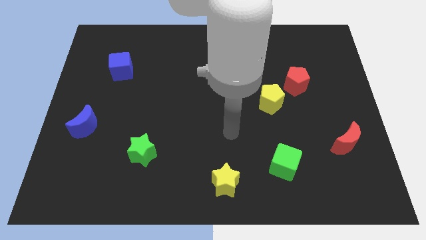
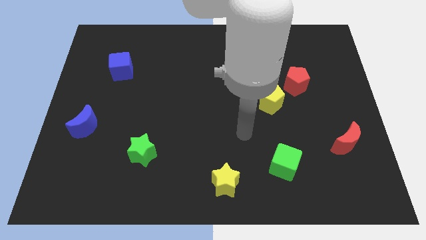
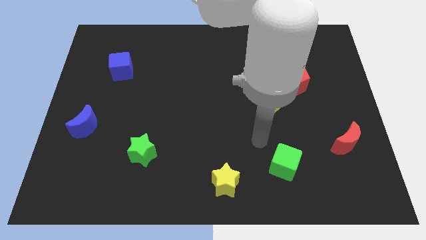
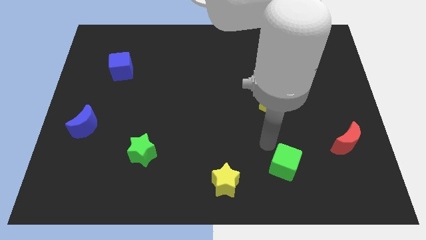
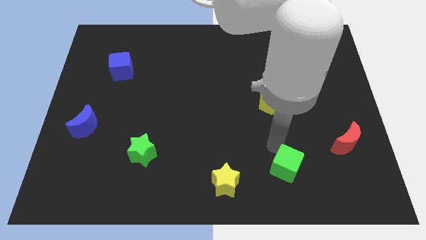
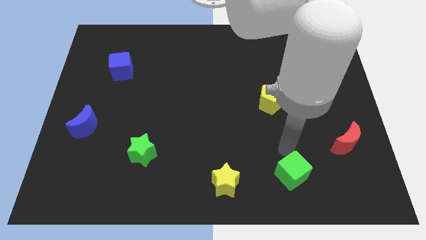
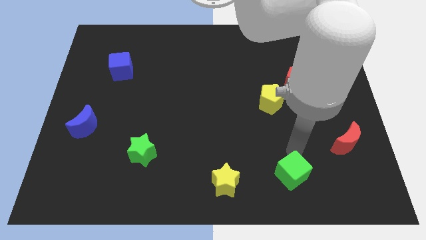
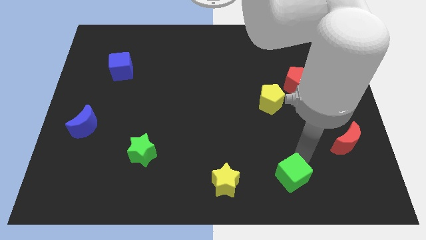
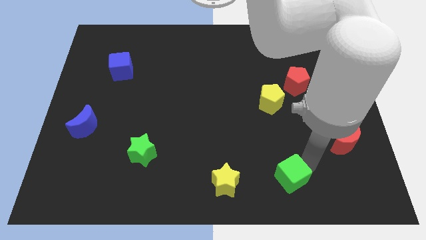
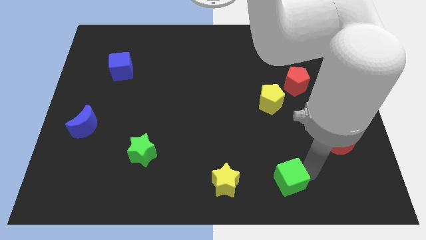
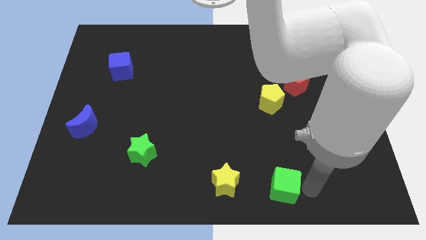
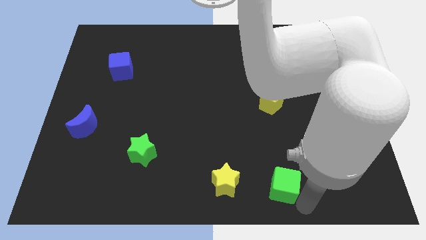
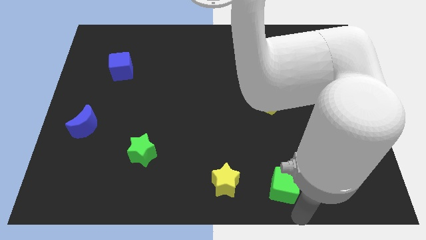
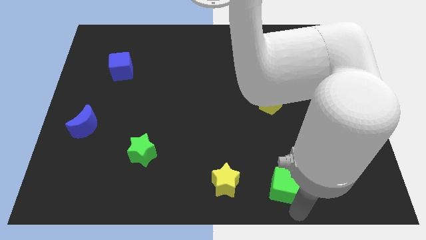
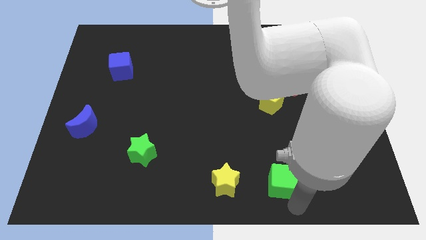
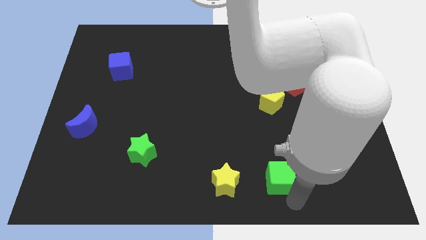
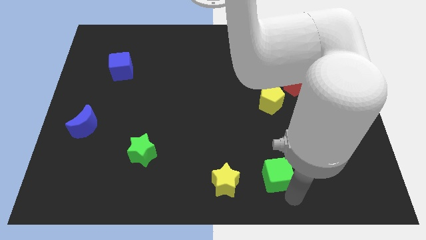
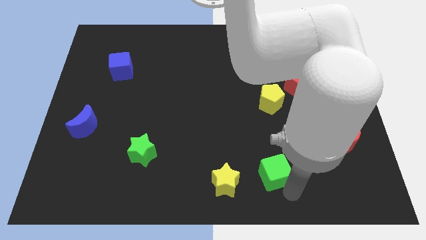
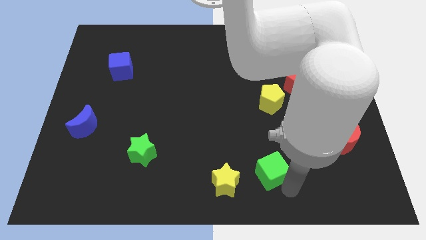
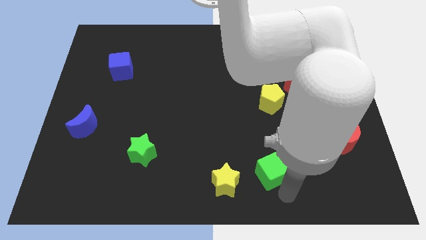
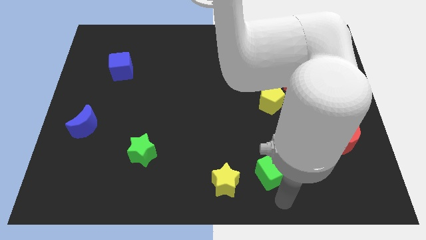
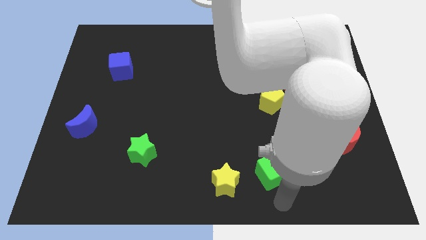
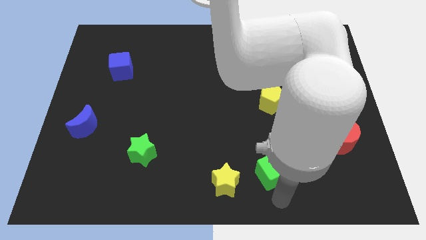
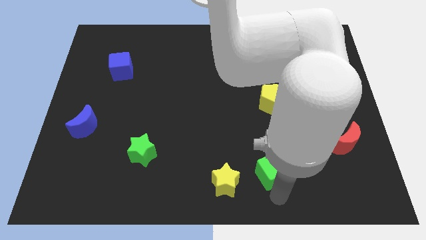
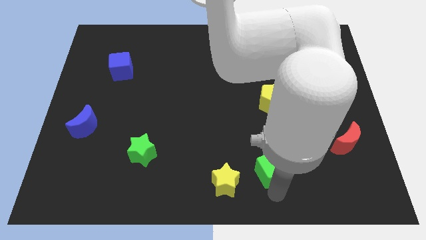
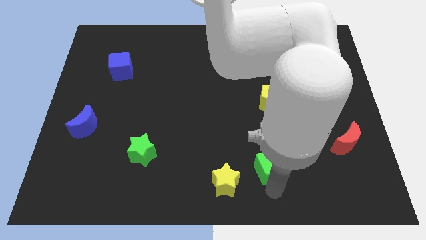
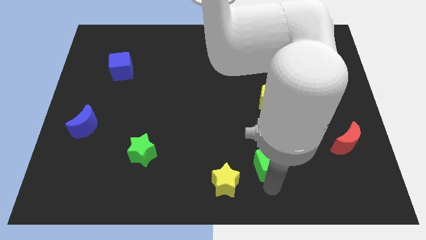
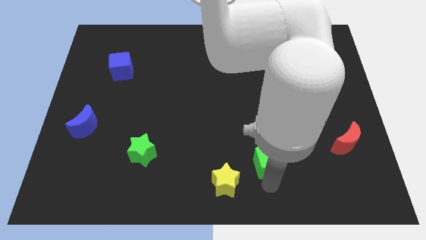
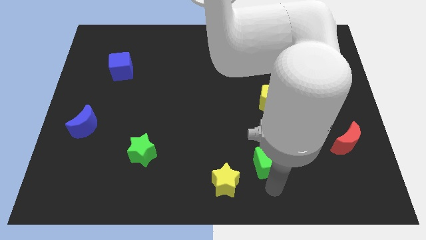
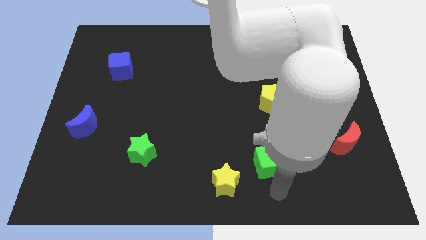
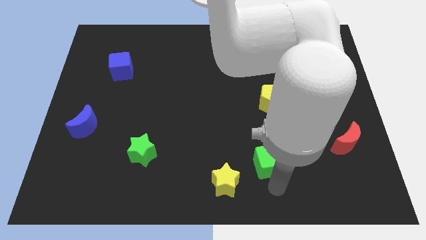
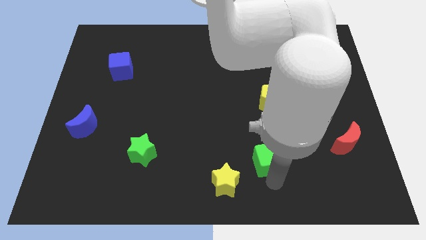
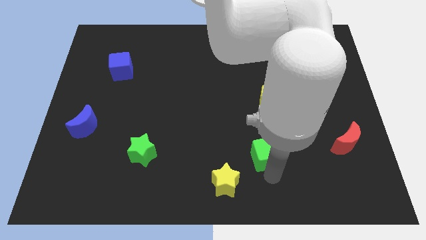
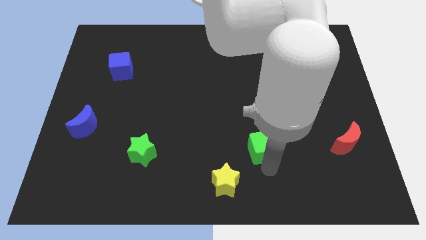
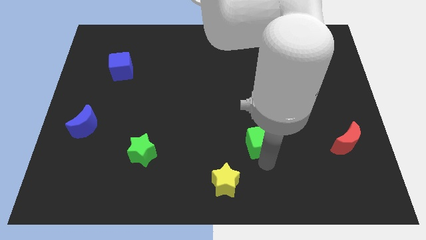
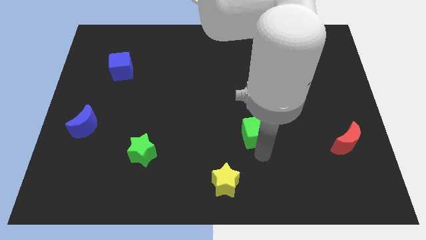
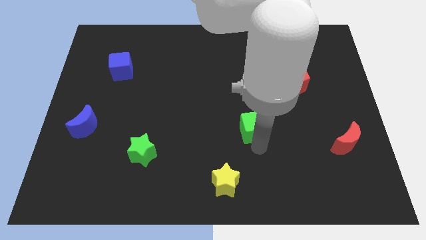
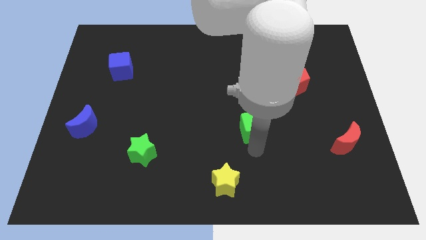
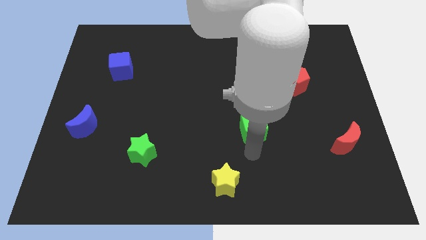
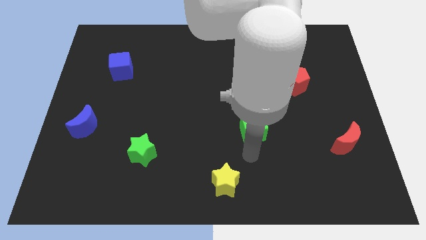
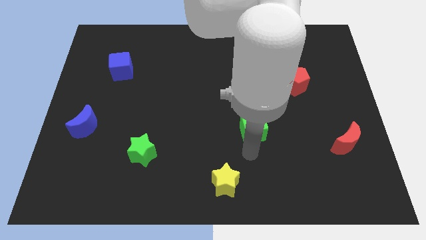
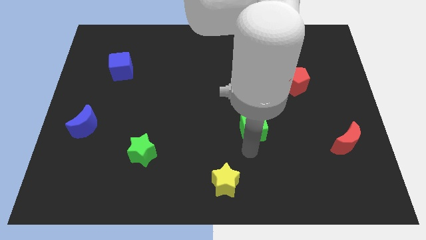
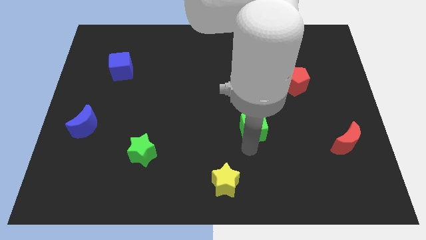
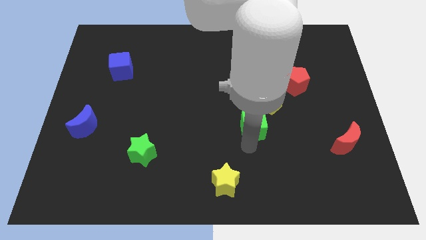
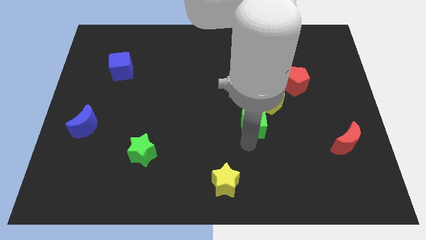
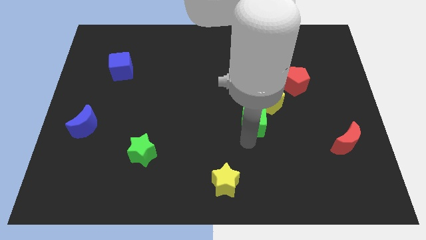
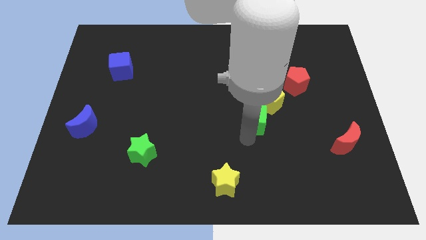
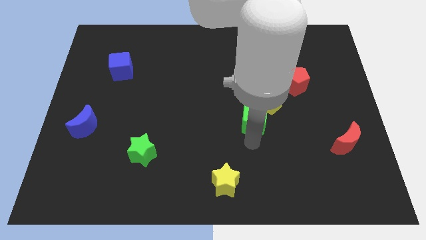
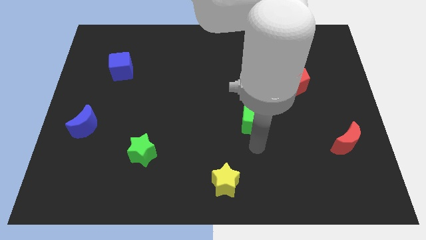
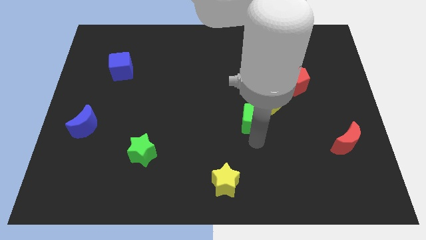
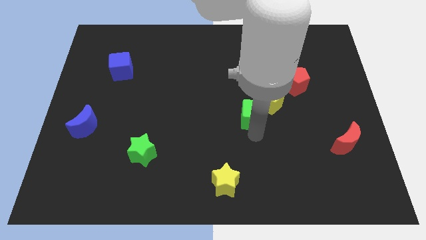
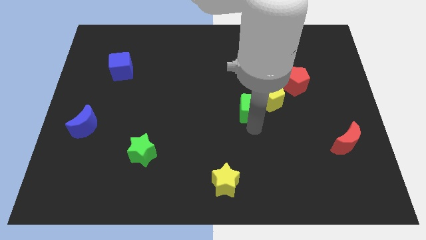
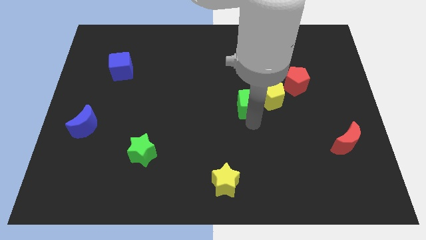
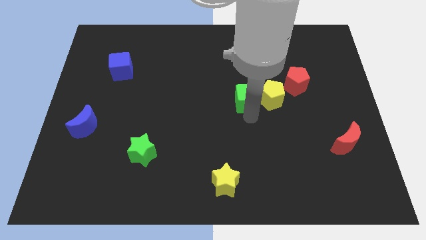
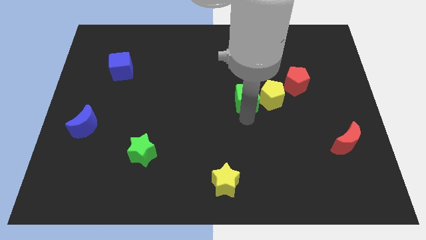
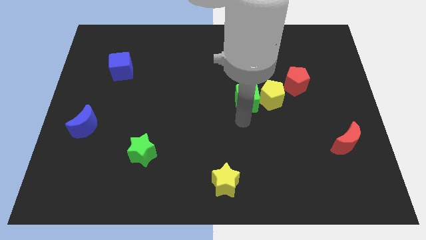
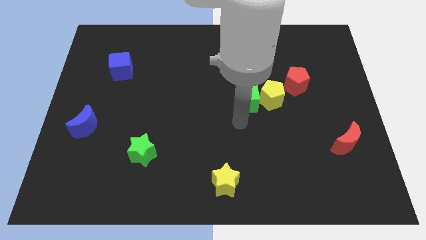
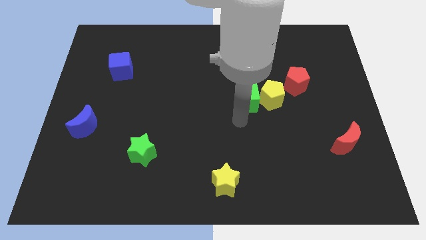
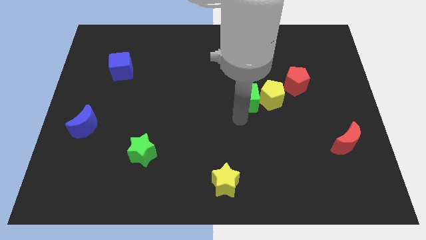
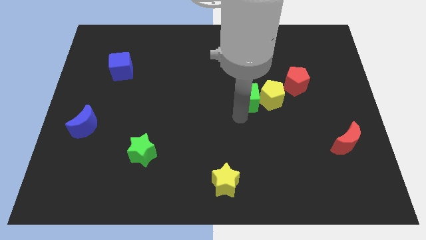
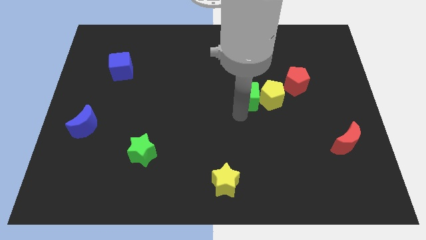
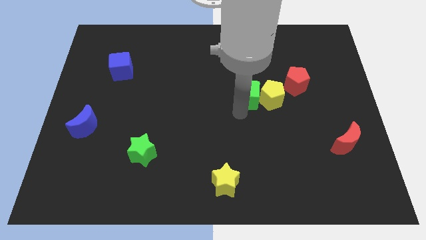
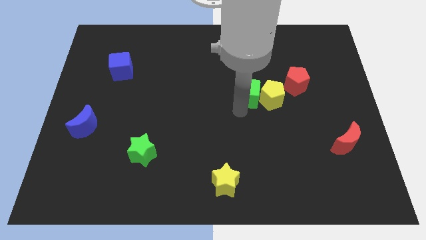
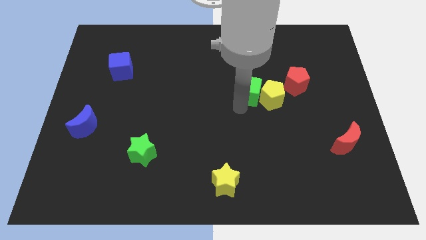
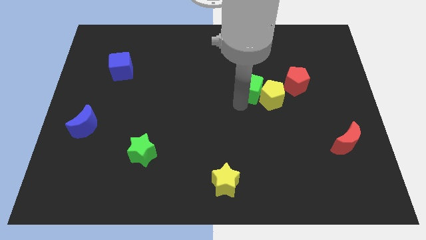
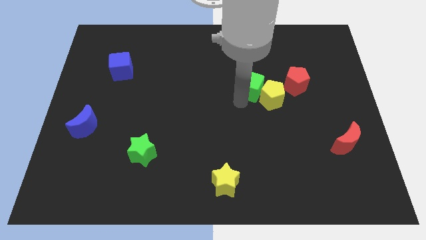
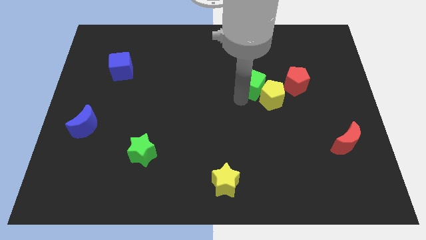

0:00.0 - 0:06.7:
push the green cube up

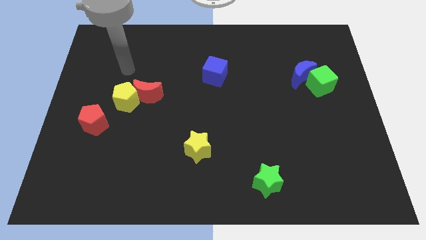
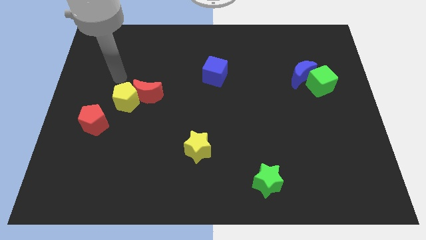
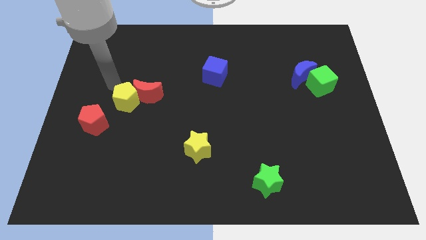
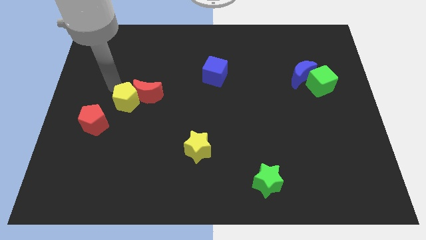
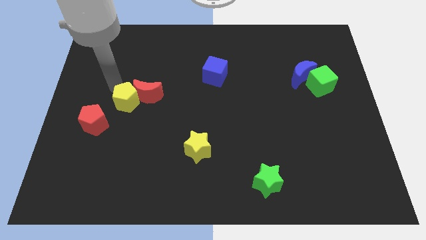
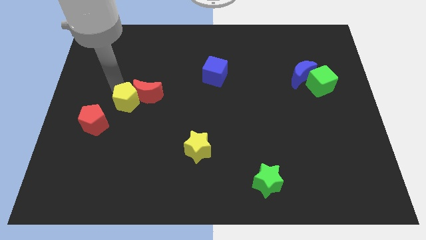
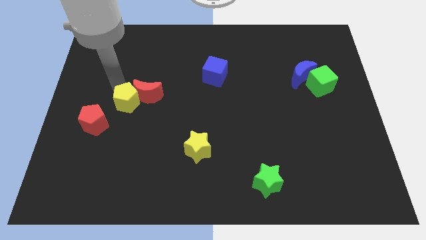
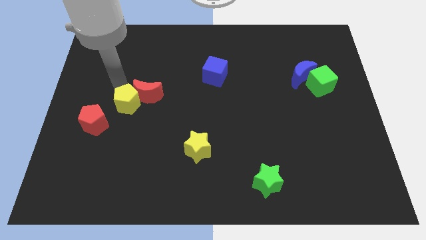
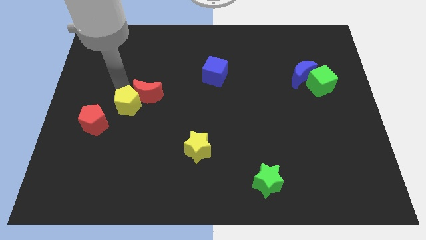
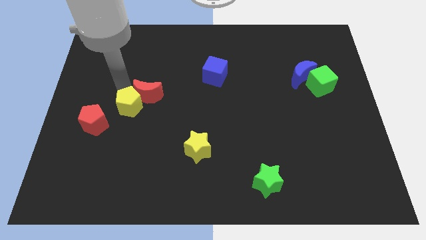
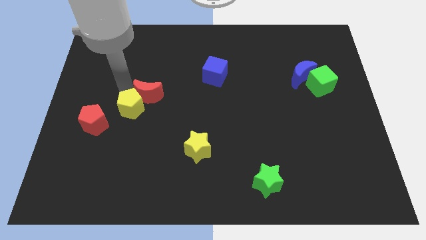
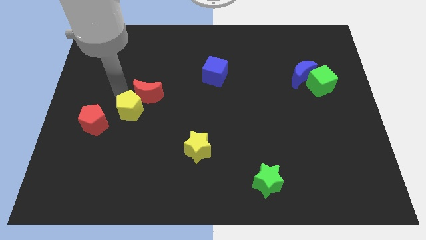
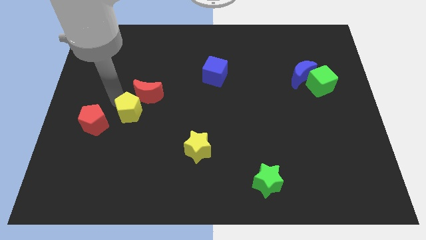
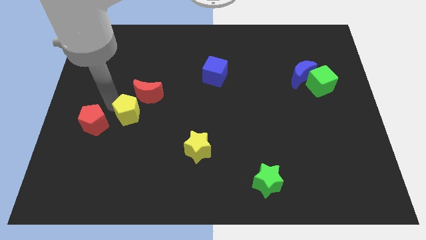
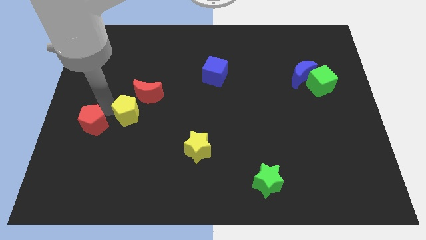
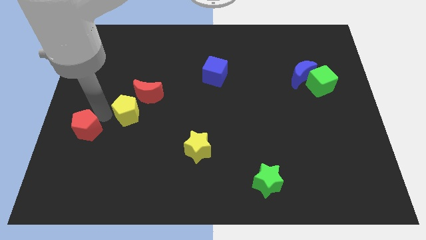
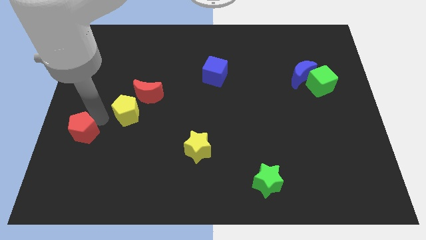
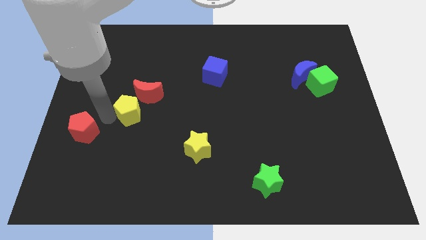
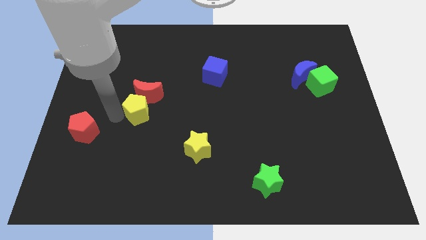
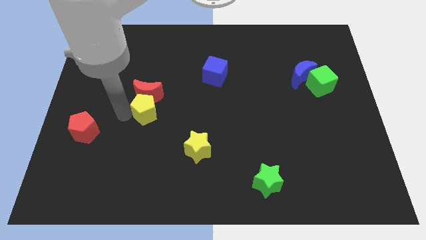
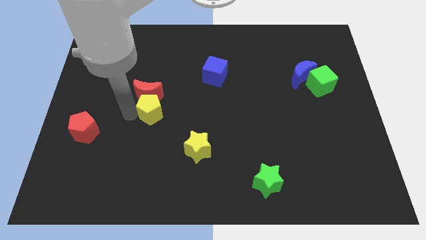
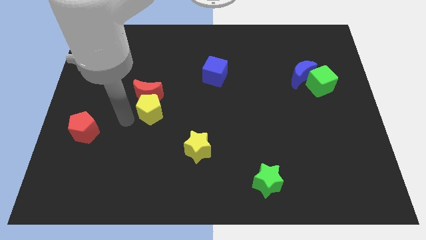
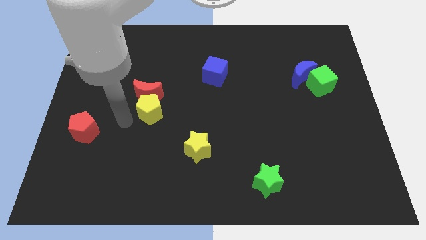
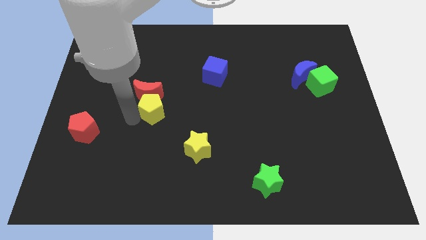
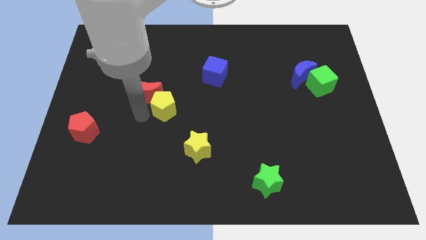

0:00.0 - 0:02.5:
slide the yellow pentagon right a bit
